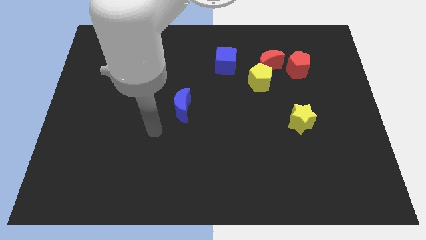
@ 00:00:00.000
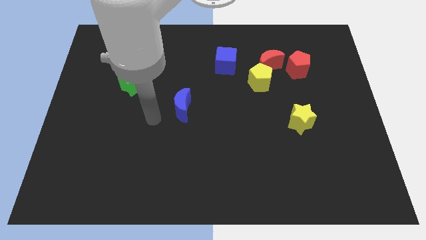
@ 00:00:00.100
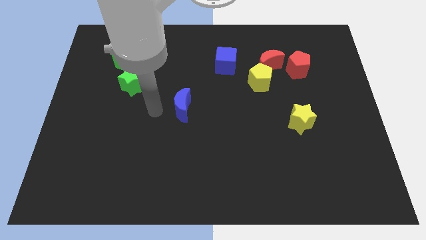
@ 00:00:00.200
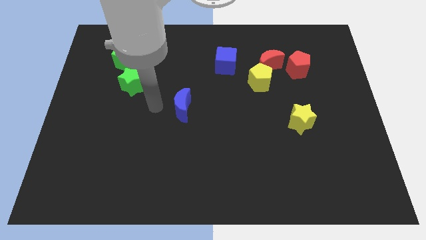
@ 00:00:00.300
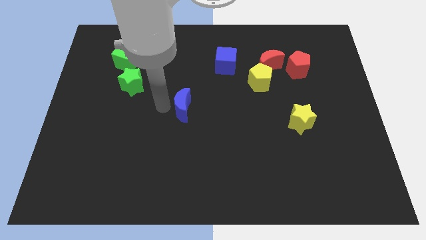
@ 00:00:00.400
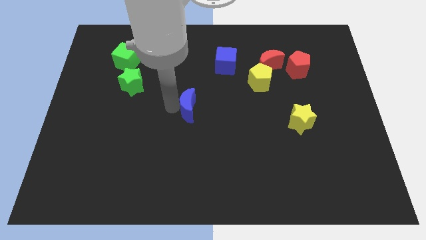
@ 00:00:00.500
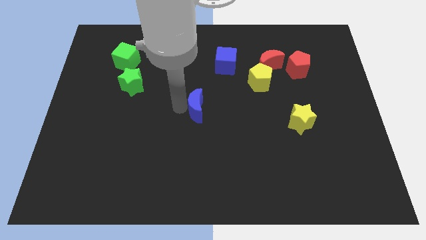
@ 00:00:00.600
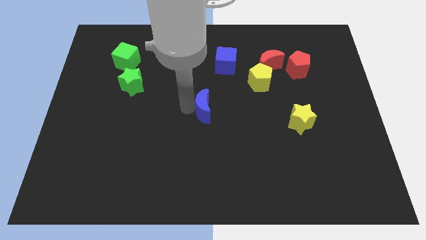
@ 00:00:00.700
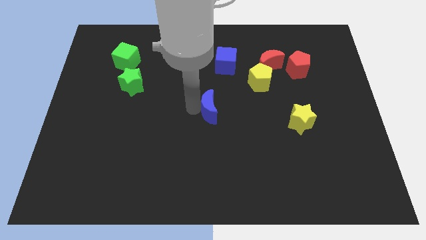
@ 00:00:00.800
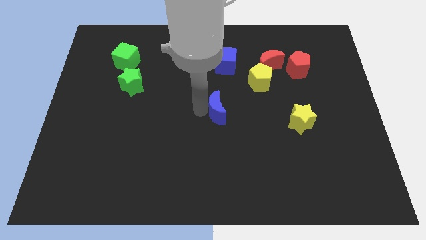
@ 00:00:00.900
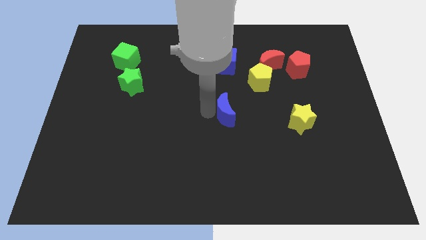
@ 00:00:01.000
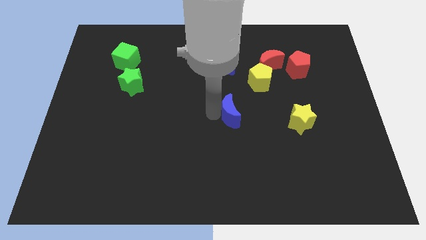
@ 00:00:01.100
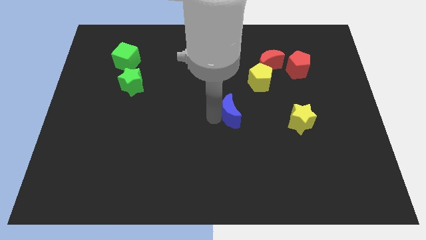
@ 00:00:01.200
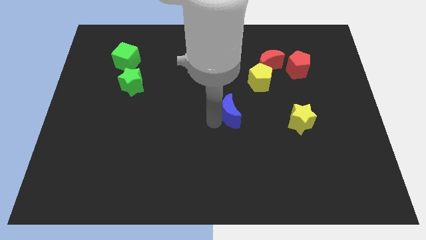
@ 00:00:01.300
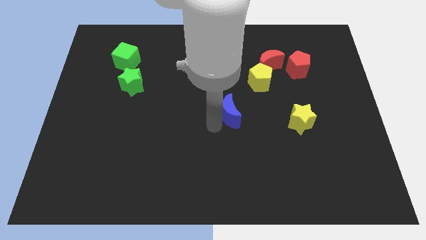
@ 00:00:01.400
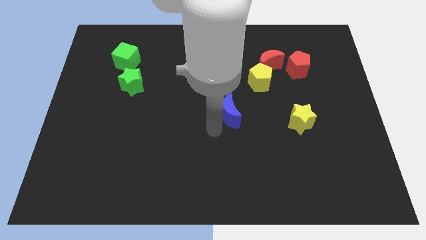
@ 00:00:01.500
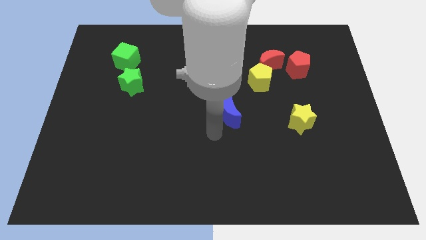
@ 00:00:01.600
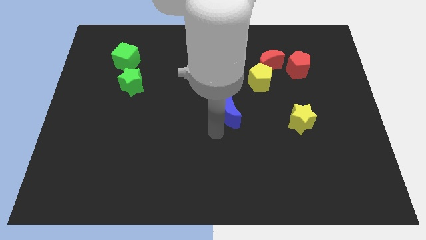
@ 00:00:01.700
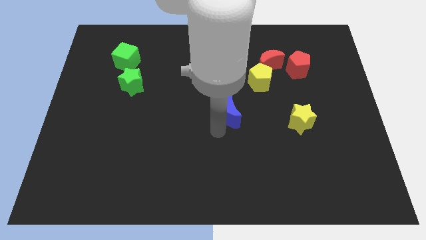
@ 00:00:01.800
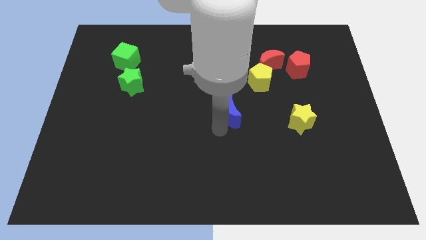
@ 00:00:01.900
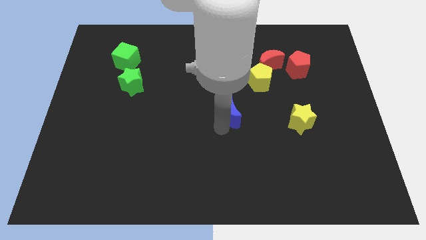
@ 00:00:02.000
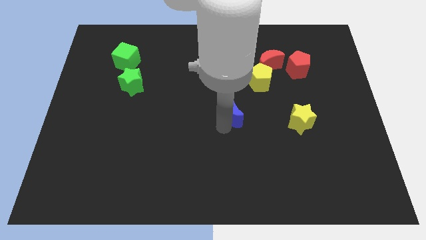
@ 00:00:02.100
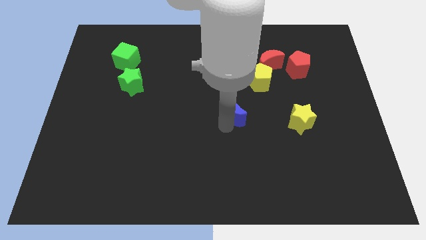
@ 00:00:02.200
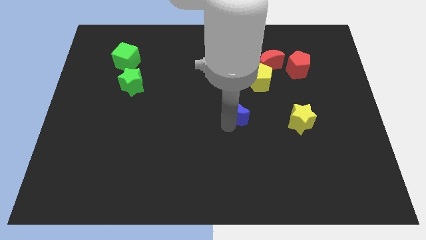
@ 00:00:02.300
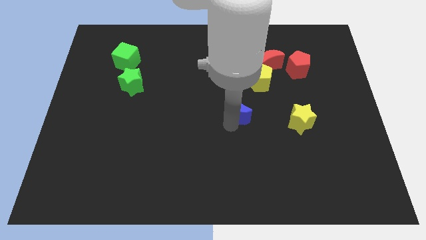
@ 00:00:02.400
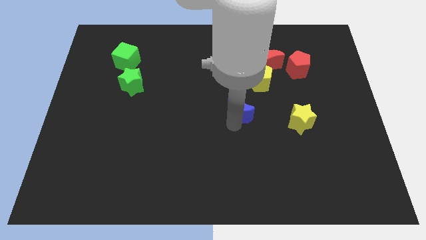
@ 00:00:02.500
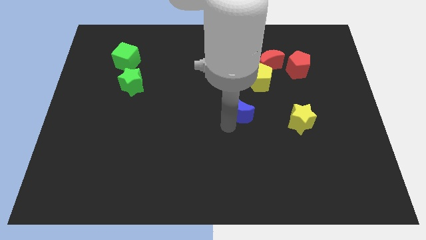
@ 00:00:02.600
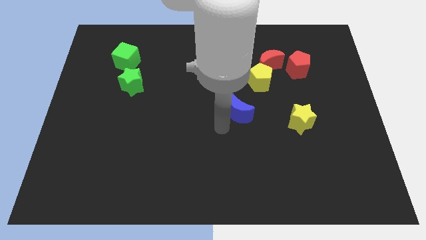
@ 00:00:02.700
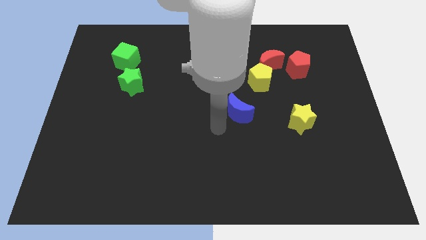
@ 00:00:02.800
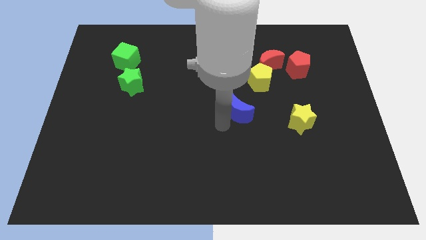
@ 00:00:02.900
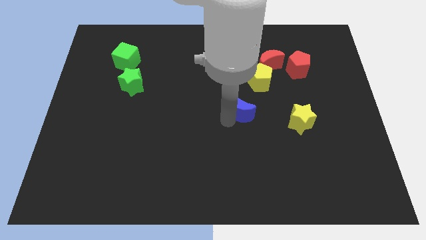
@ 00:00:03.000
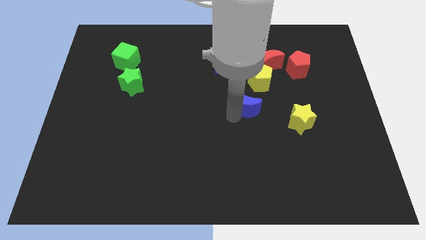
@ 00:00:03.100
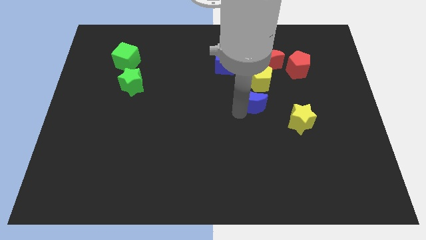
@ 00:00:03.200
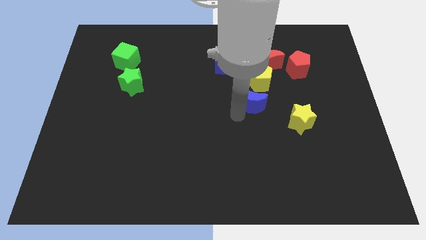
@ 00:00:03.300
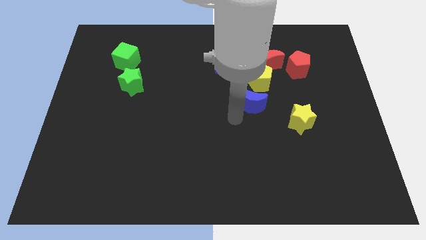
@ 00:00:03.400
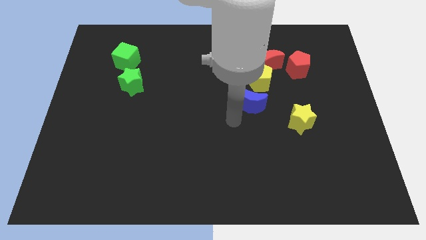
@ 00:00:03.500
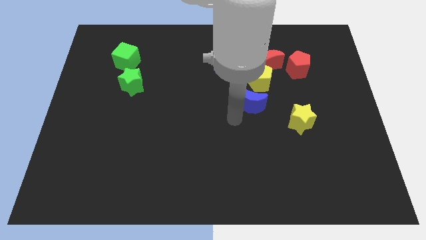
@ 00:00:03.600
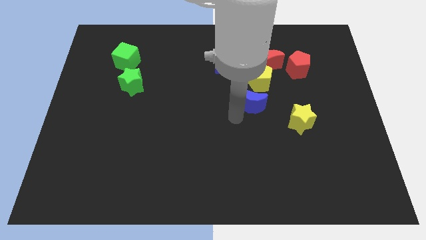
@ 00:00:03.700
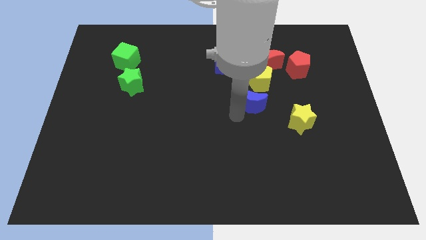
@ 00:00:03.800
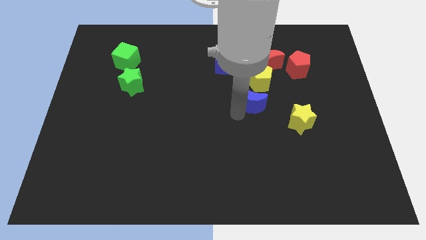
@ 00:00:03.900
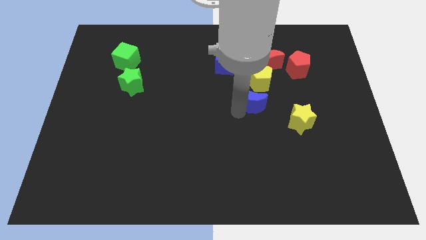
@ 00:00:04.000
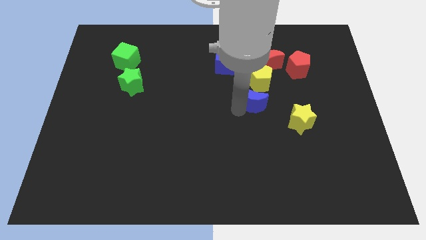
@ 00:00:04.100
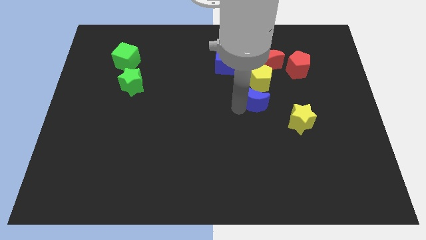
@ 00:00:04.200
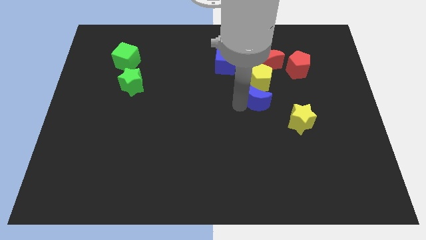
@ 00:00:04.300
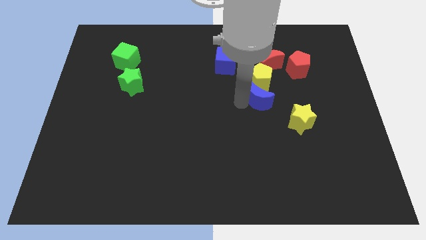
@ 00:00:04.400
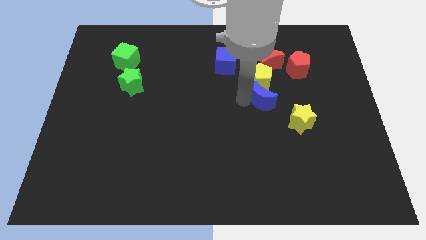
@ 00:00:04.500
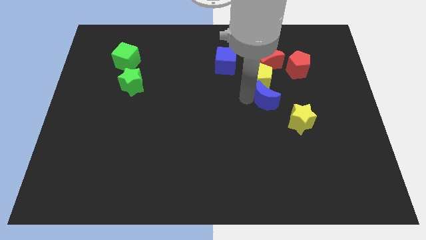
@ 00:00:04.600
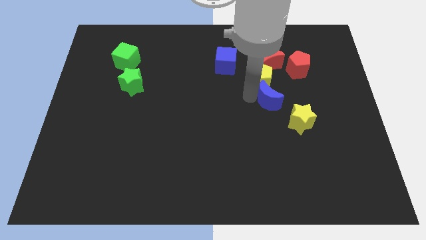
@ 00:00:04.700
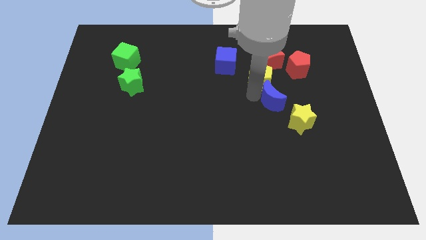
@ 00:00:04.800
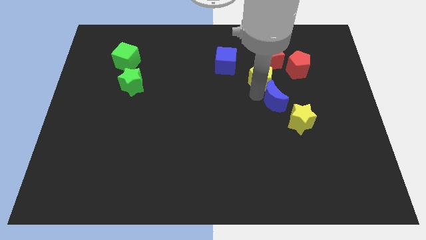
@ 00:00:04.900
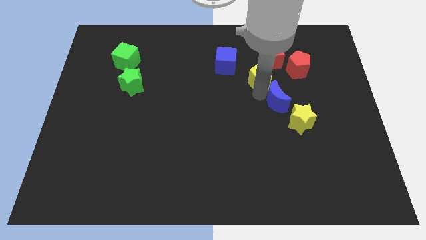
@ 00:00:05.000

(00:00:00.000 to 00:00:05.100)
push the blue moon to the top of the yellow star

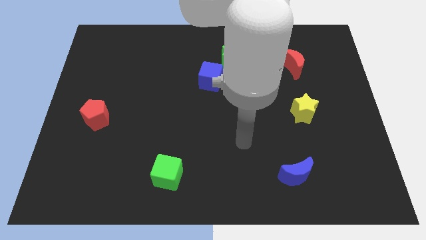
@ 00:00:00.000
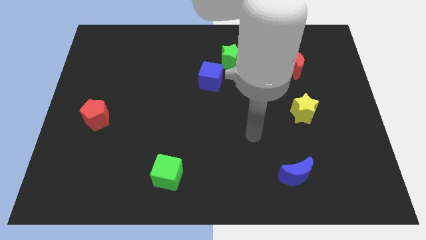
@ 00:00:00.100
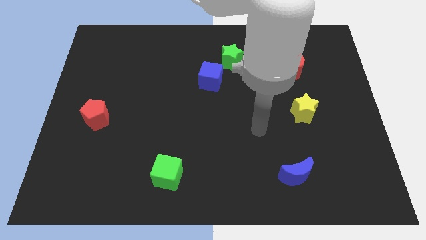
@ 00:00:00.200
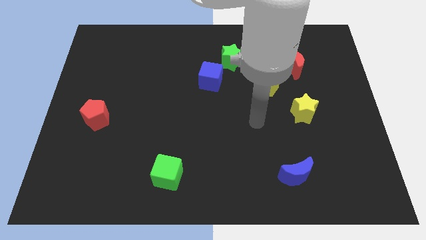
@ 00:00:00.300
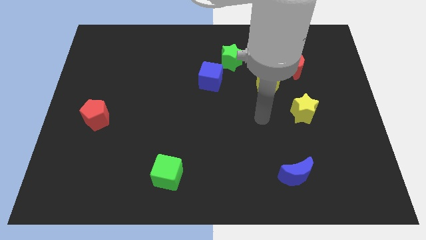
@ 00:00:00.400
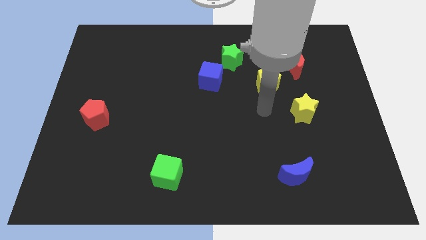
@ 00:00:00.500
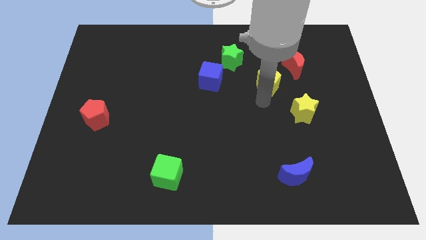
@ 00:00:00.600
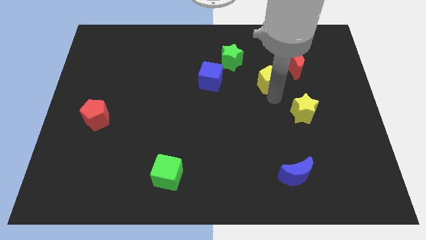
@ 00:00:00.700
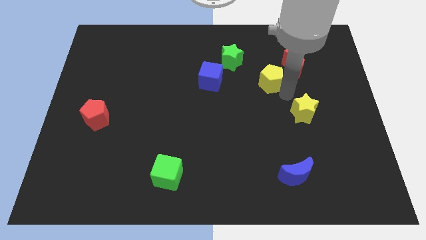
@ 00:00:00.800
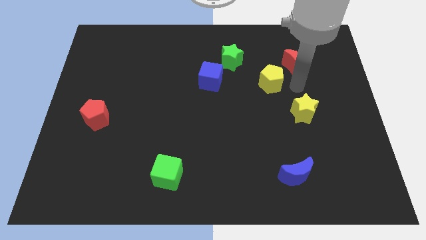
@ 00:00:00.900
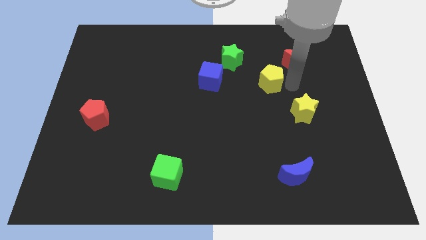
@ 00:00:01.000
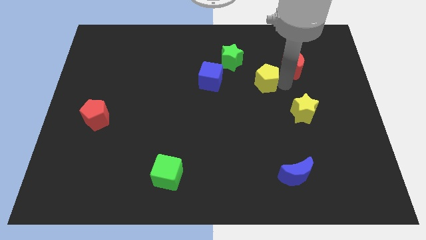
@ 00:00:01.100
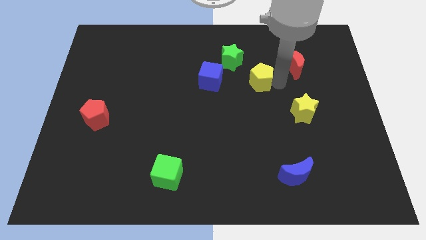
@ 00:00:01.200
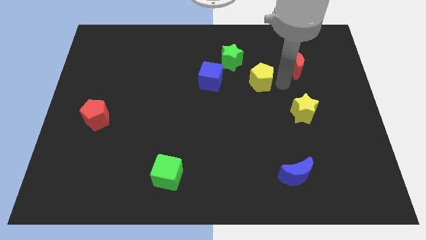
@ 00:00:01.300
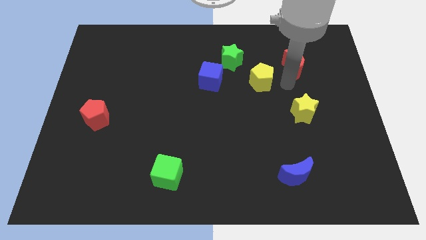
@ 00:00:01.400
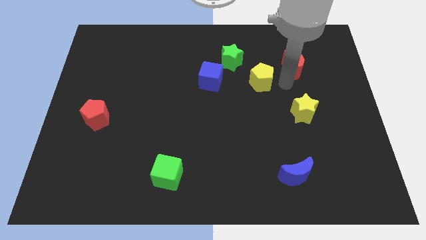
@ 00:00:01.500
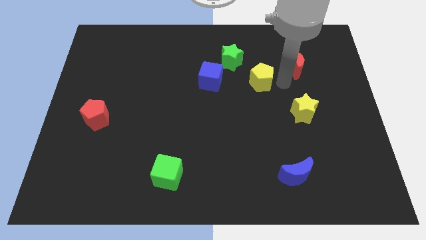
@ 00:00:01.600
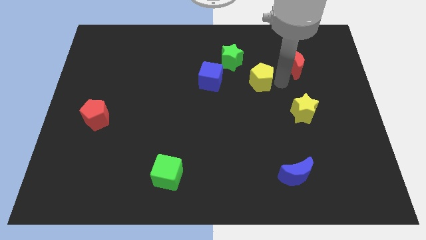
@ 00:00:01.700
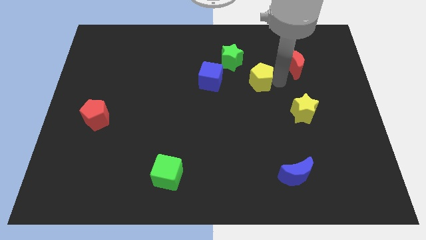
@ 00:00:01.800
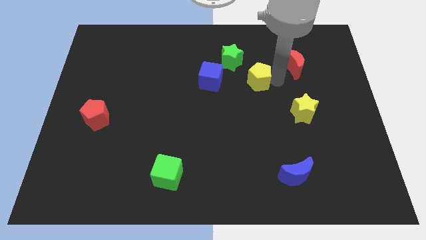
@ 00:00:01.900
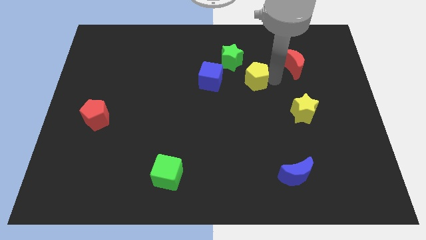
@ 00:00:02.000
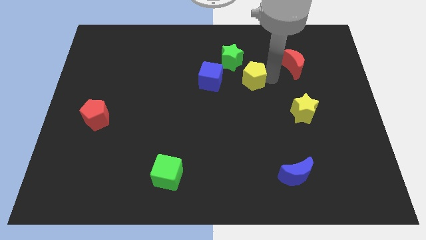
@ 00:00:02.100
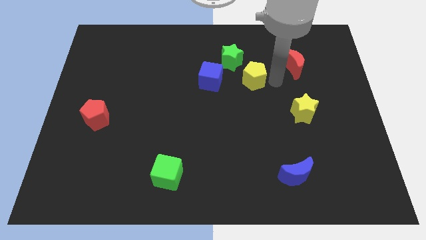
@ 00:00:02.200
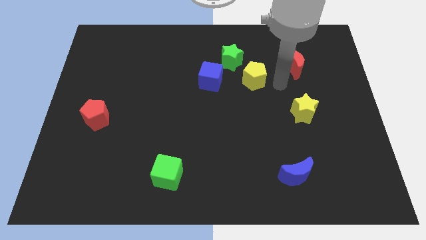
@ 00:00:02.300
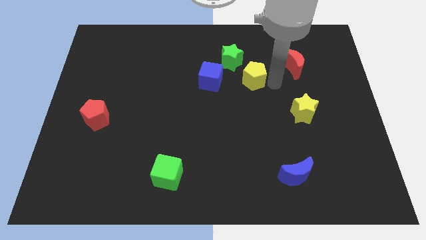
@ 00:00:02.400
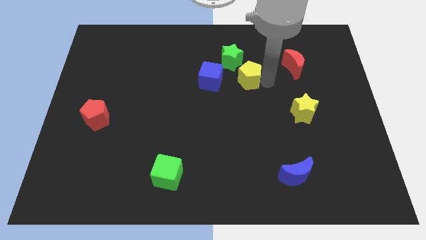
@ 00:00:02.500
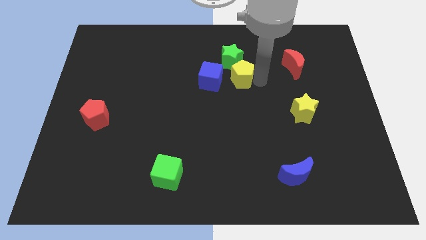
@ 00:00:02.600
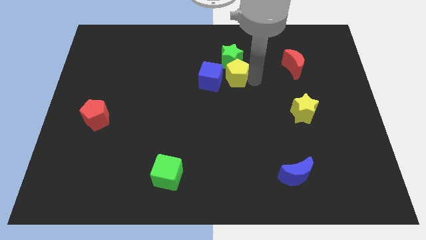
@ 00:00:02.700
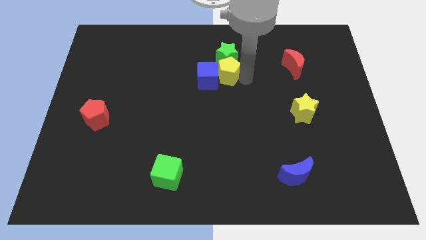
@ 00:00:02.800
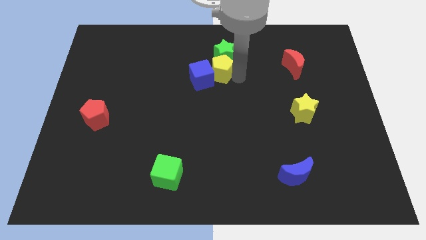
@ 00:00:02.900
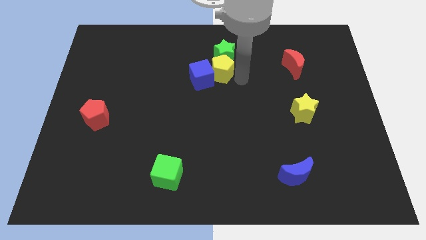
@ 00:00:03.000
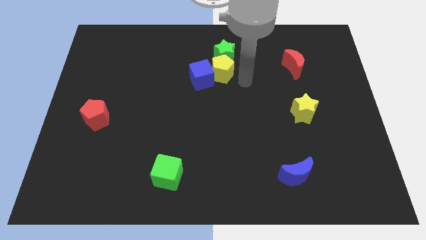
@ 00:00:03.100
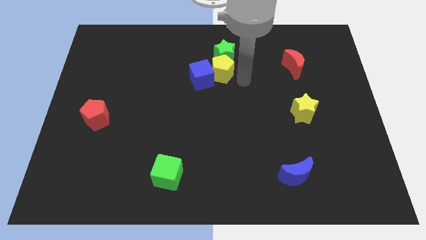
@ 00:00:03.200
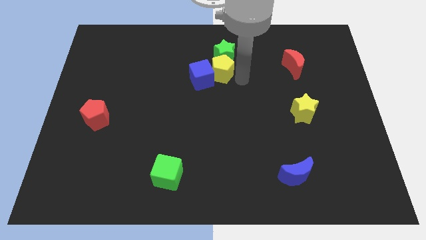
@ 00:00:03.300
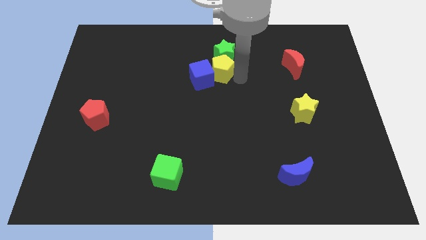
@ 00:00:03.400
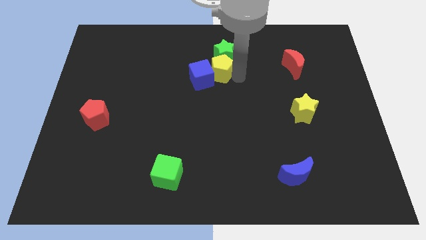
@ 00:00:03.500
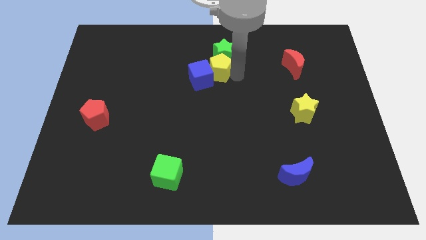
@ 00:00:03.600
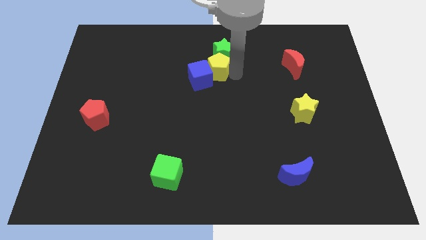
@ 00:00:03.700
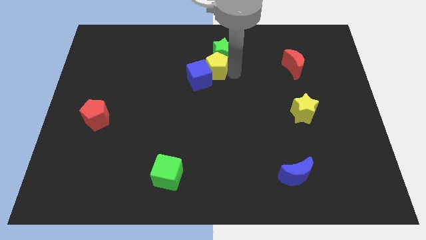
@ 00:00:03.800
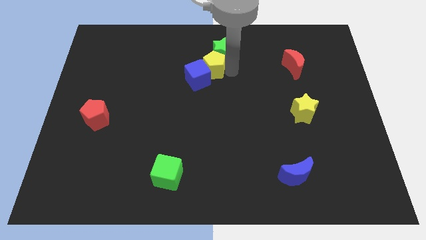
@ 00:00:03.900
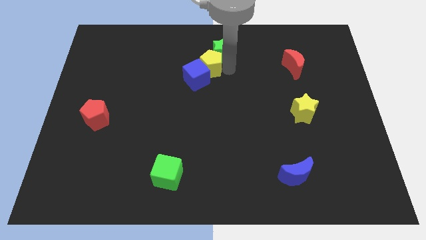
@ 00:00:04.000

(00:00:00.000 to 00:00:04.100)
put the yellow pentagon to the left of the green star
